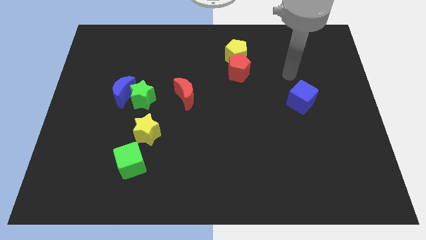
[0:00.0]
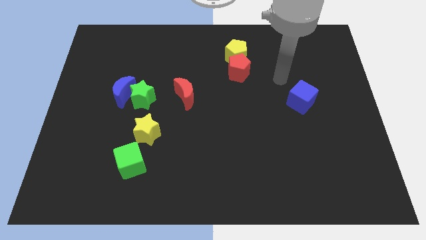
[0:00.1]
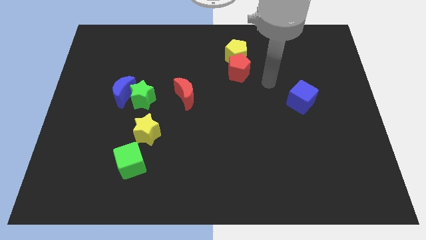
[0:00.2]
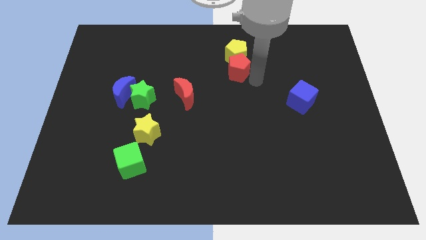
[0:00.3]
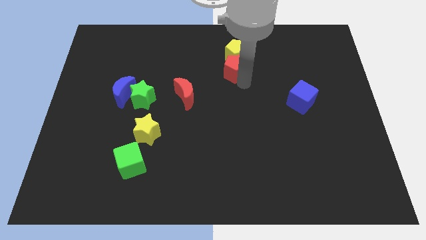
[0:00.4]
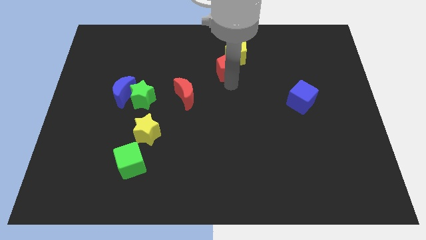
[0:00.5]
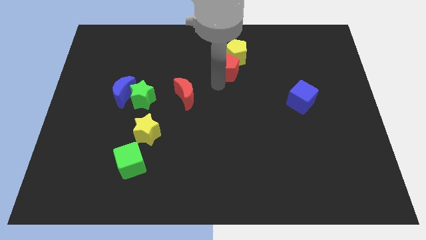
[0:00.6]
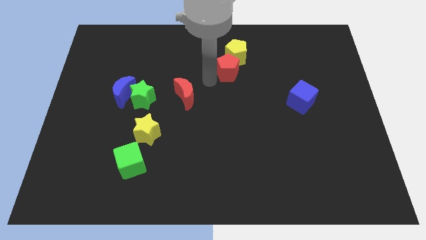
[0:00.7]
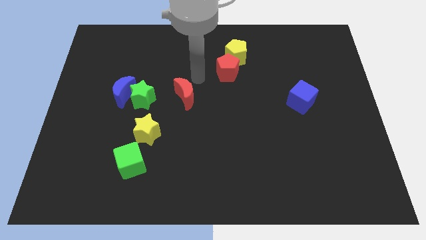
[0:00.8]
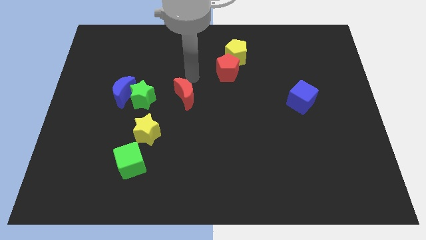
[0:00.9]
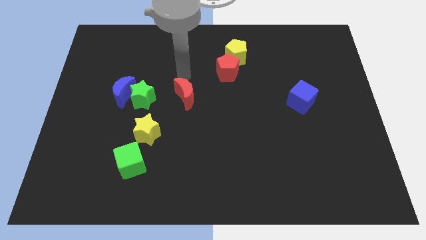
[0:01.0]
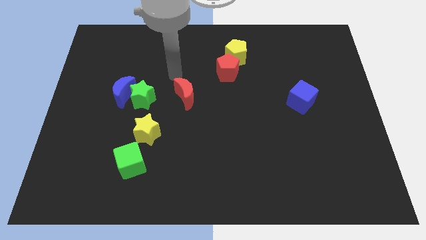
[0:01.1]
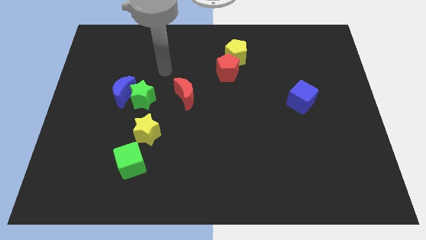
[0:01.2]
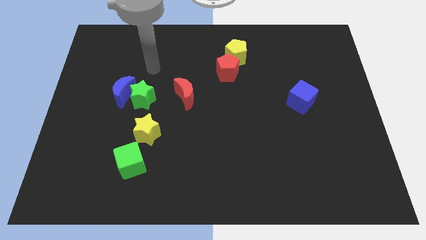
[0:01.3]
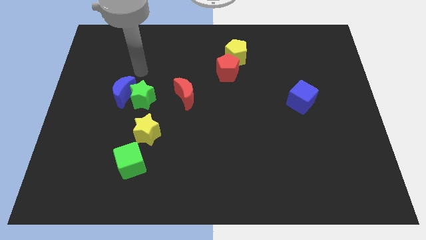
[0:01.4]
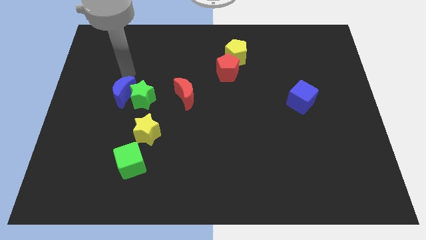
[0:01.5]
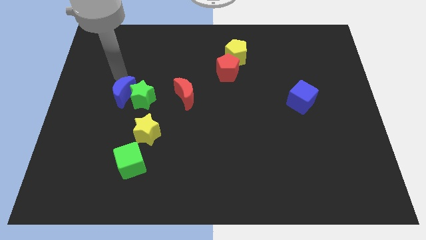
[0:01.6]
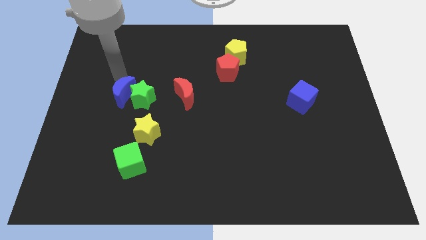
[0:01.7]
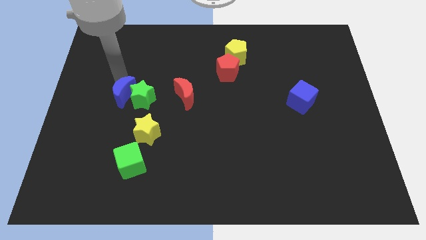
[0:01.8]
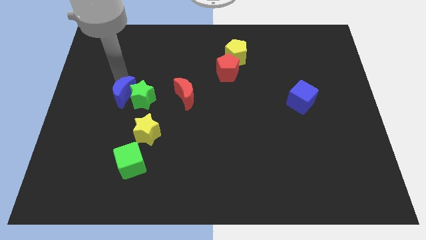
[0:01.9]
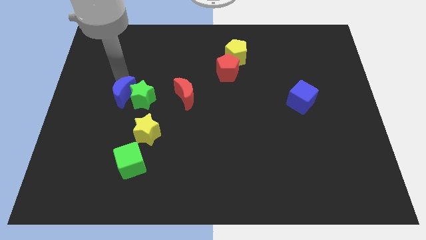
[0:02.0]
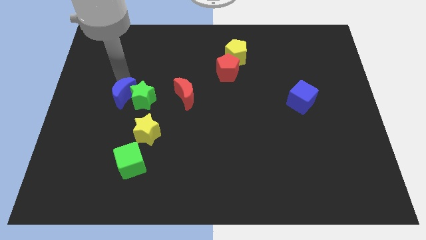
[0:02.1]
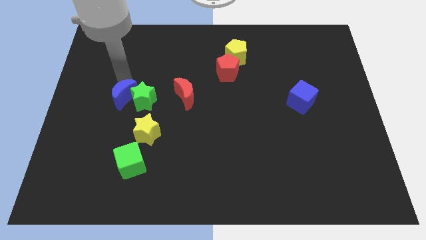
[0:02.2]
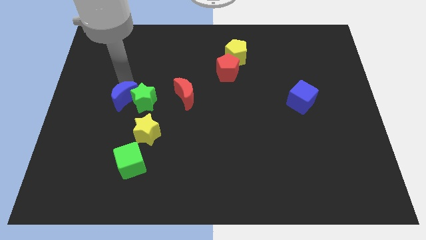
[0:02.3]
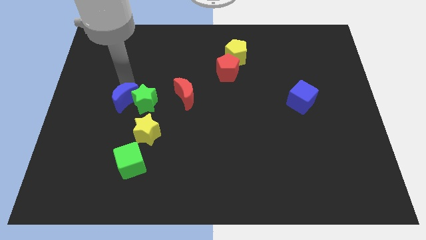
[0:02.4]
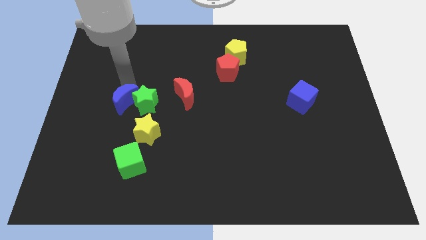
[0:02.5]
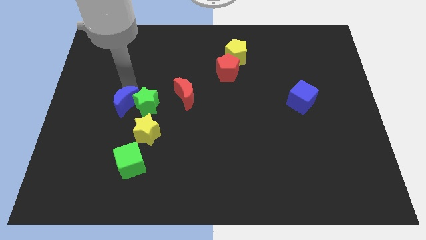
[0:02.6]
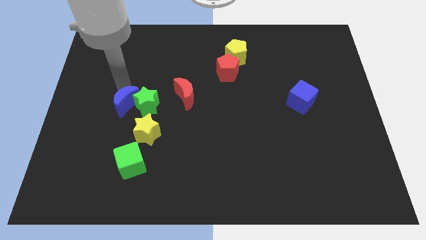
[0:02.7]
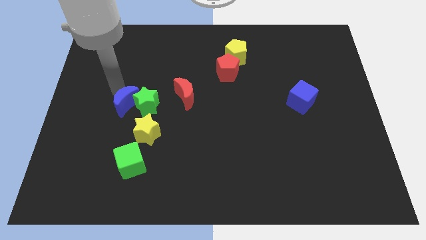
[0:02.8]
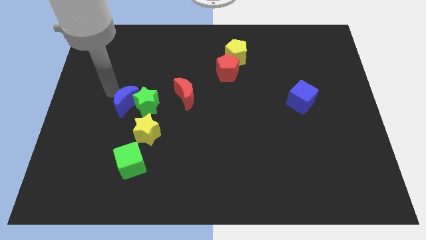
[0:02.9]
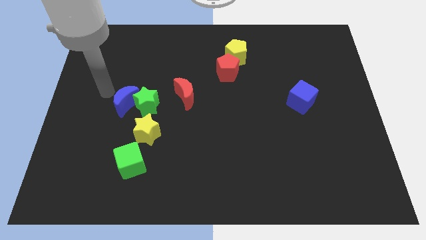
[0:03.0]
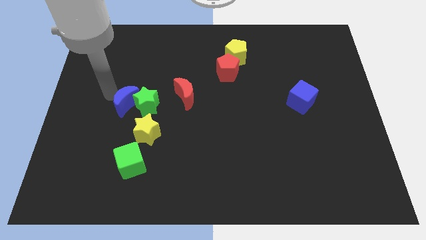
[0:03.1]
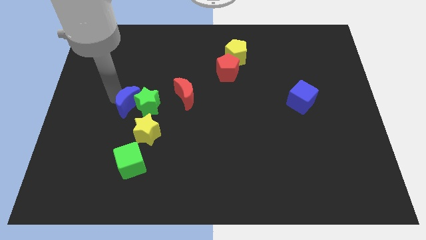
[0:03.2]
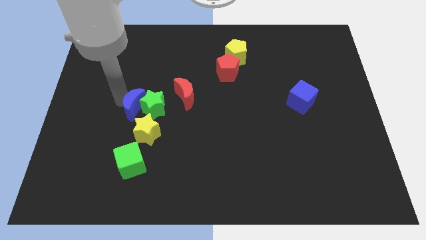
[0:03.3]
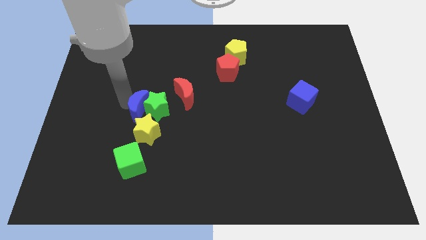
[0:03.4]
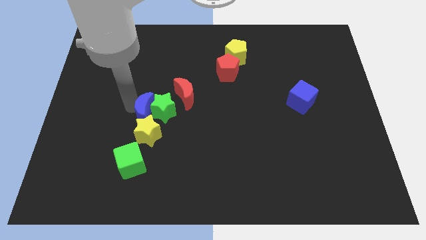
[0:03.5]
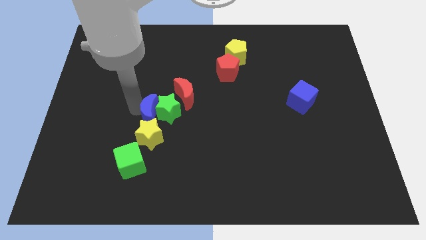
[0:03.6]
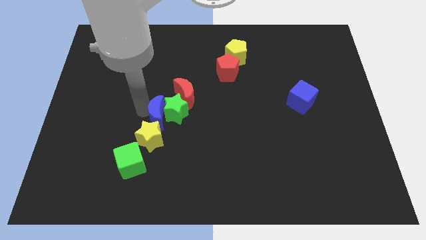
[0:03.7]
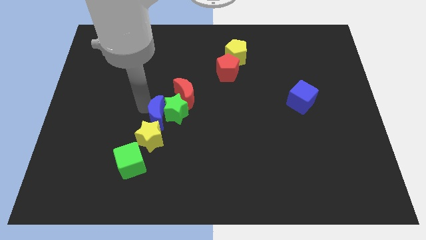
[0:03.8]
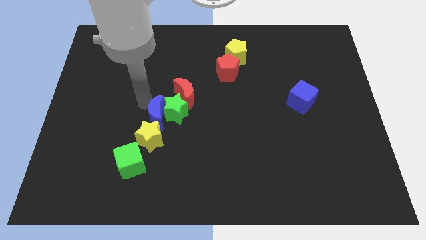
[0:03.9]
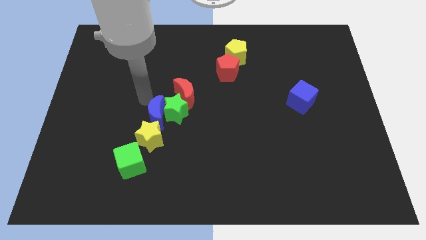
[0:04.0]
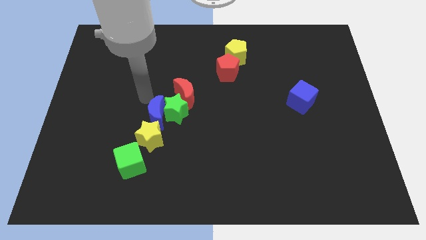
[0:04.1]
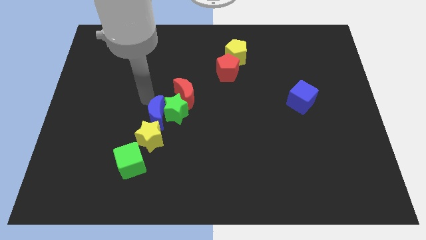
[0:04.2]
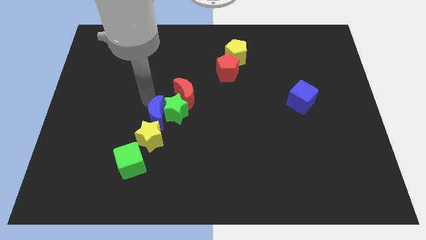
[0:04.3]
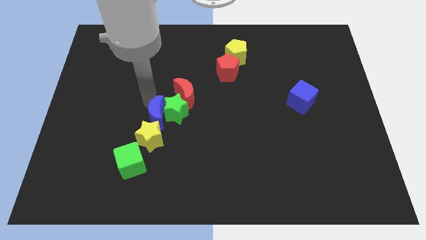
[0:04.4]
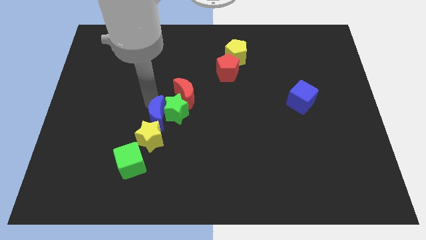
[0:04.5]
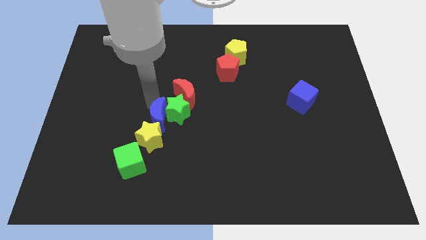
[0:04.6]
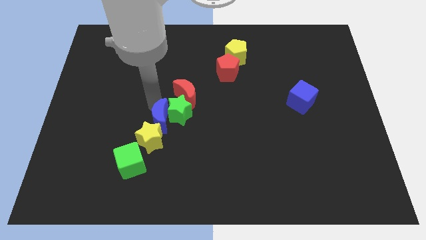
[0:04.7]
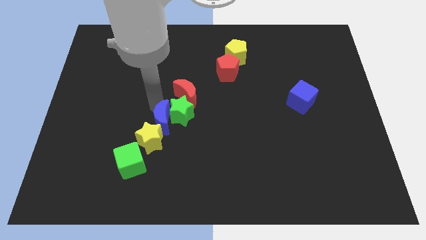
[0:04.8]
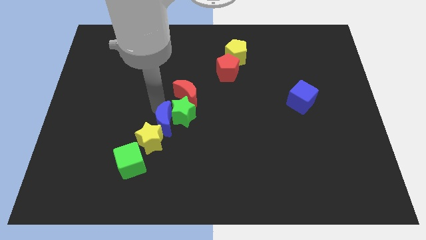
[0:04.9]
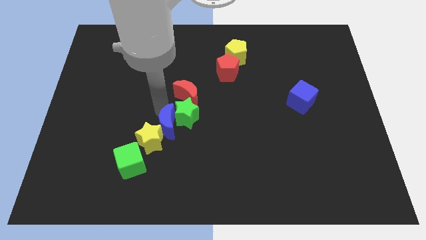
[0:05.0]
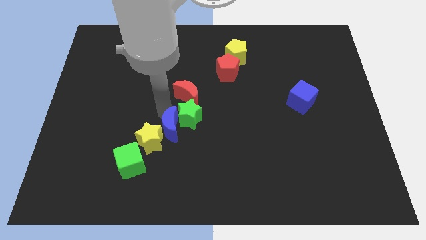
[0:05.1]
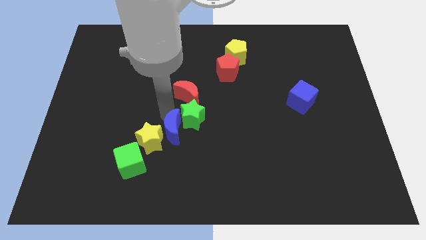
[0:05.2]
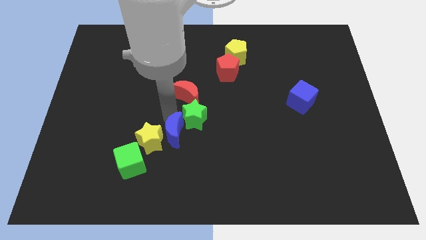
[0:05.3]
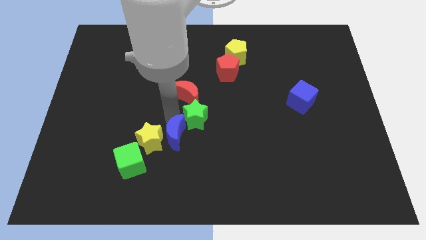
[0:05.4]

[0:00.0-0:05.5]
move the blue moon to the bottom right of the yellow star

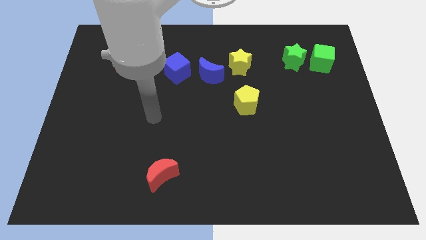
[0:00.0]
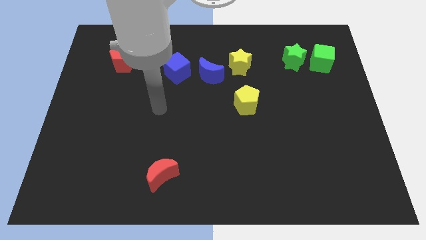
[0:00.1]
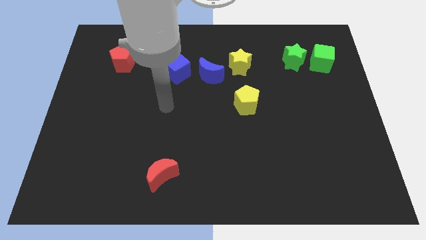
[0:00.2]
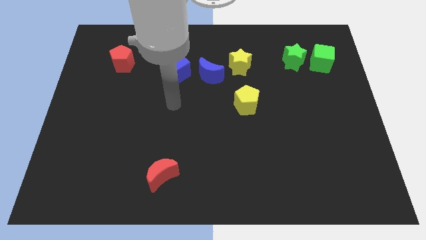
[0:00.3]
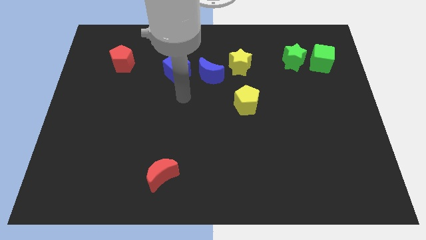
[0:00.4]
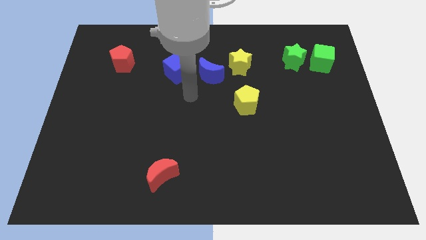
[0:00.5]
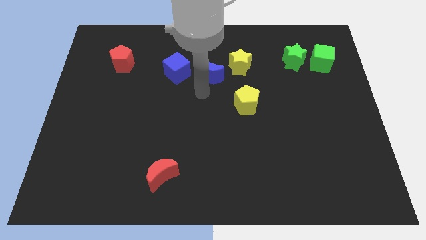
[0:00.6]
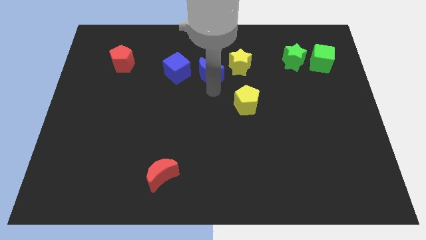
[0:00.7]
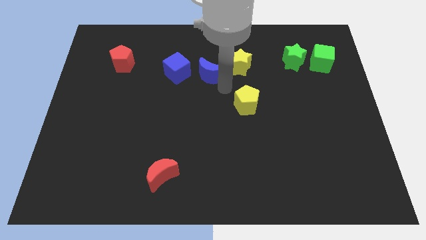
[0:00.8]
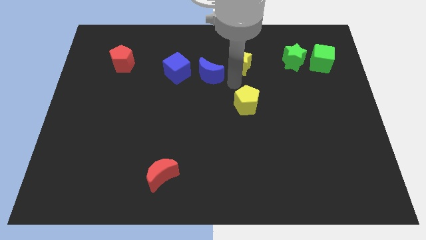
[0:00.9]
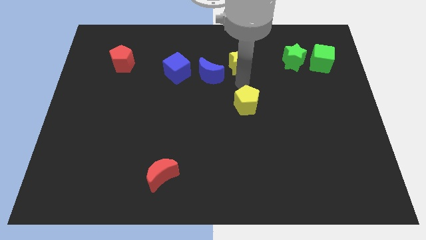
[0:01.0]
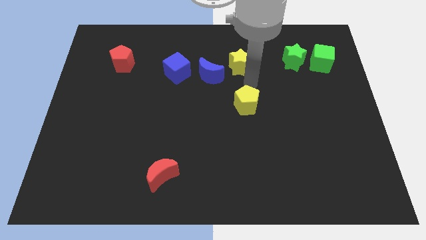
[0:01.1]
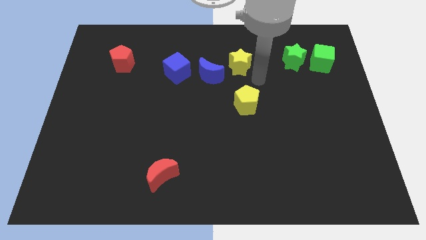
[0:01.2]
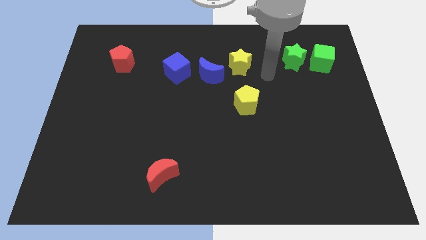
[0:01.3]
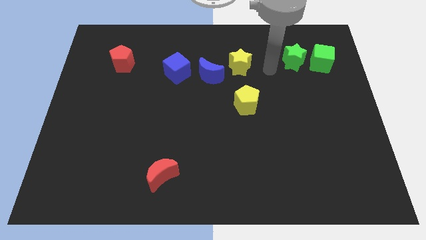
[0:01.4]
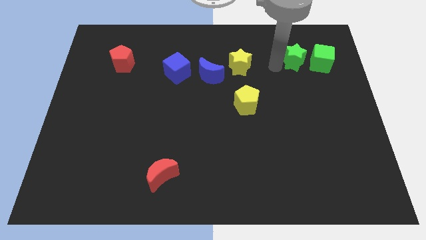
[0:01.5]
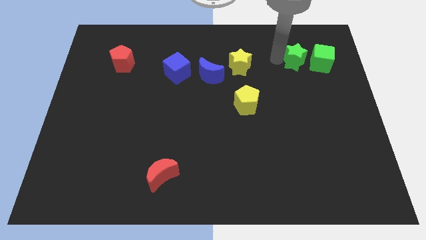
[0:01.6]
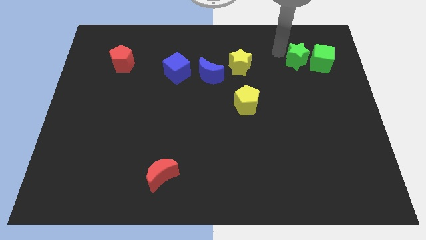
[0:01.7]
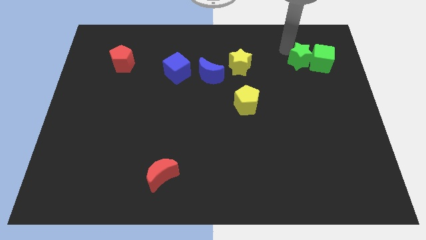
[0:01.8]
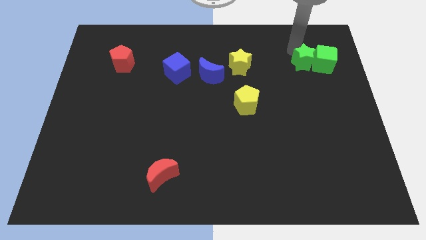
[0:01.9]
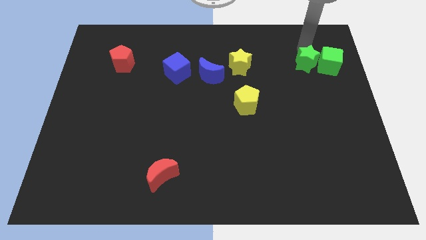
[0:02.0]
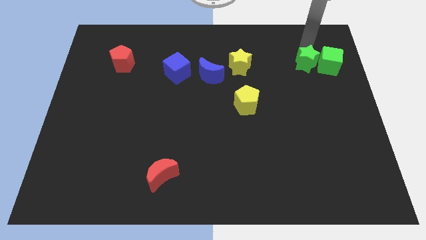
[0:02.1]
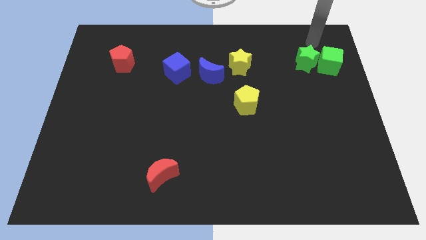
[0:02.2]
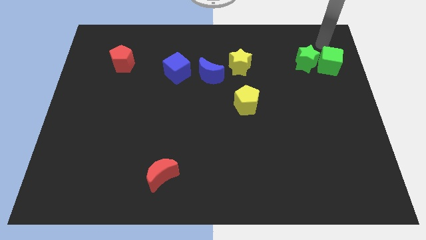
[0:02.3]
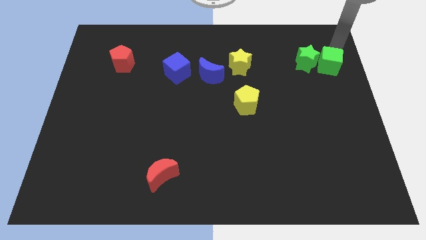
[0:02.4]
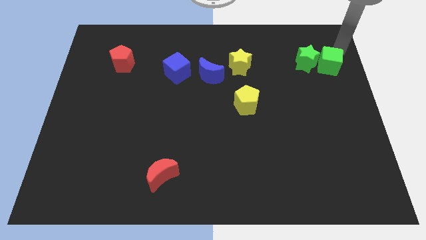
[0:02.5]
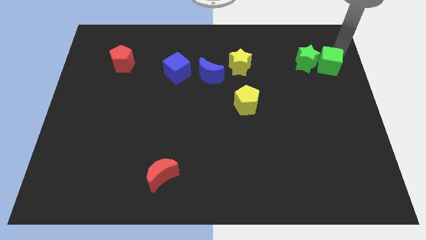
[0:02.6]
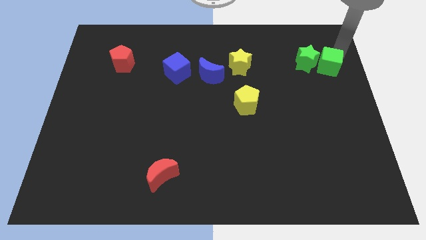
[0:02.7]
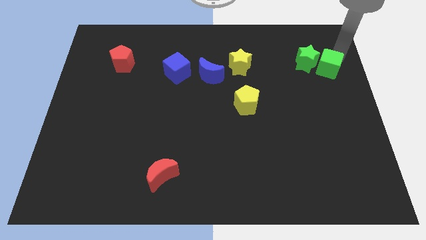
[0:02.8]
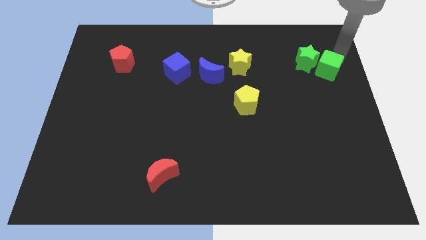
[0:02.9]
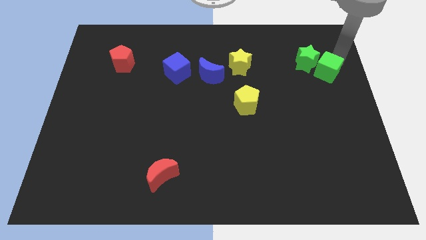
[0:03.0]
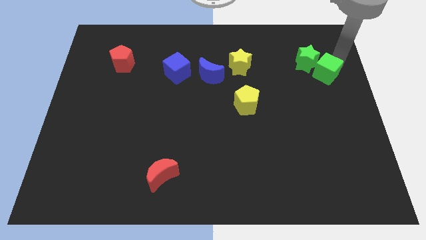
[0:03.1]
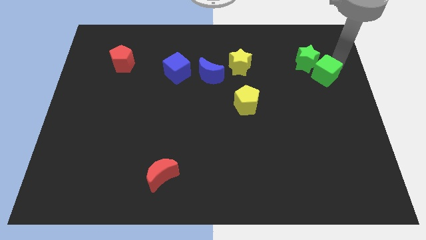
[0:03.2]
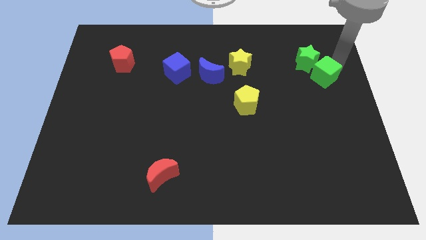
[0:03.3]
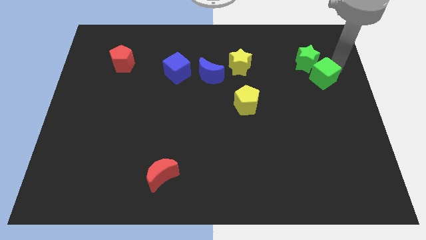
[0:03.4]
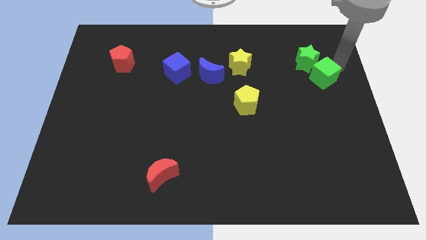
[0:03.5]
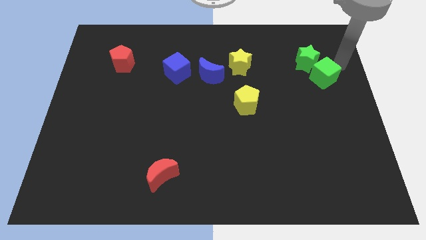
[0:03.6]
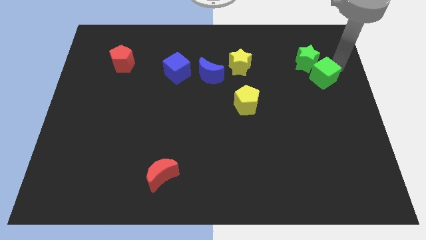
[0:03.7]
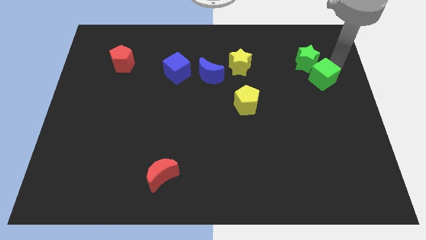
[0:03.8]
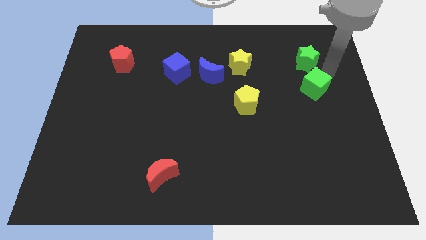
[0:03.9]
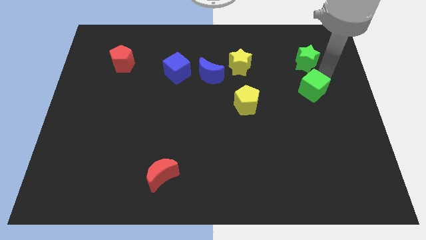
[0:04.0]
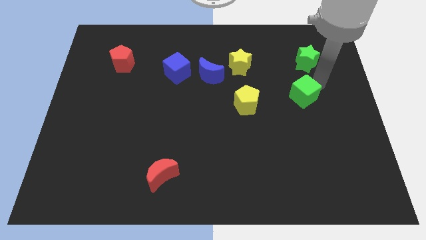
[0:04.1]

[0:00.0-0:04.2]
move the green cube to the right of the yellow pentagon
